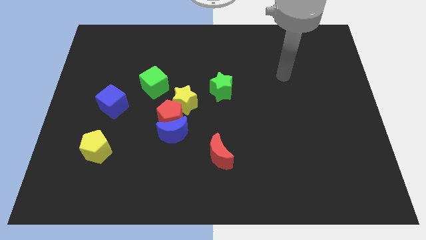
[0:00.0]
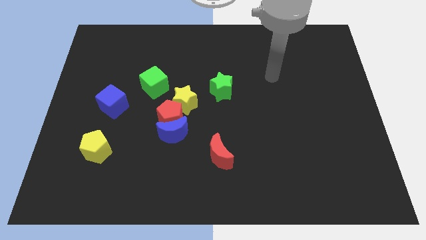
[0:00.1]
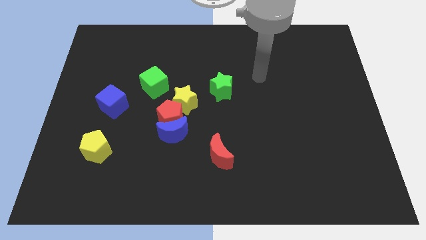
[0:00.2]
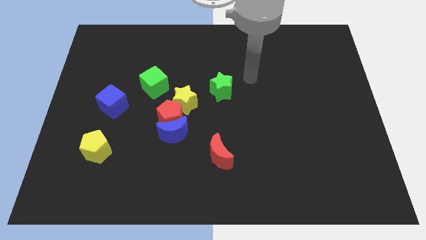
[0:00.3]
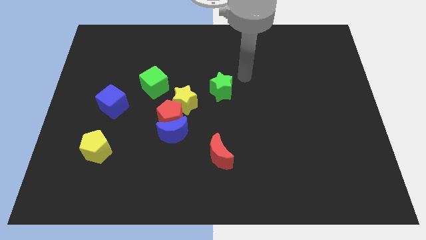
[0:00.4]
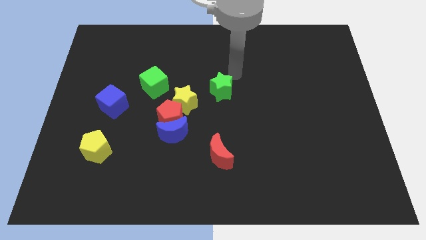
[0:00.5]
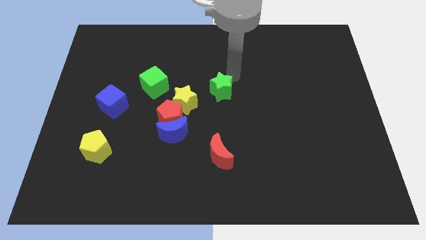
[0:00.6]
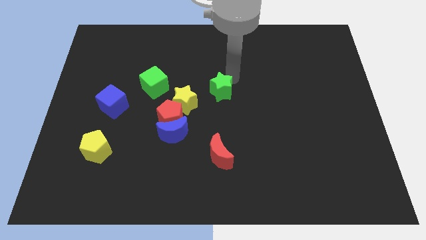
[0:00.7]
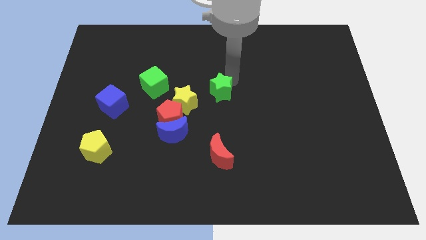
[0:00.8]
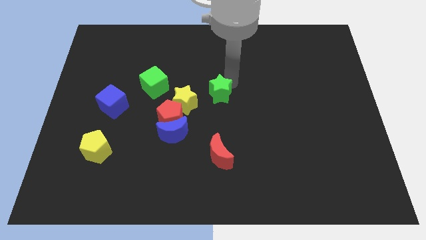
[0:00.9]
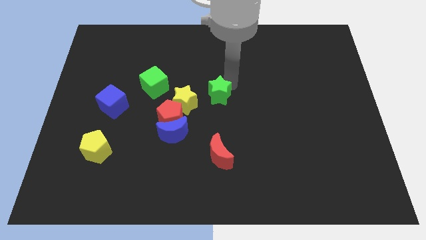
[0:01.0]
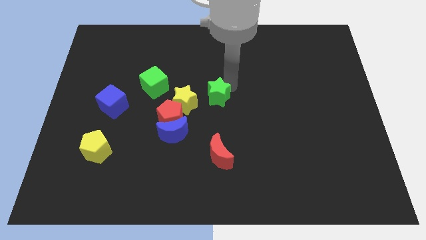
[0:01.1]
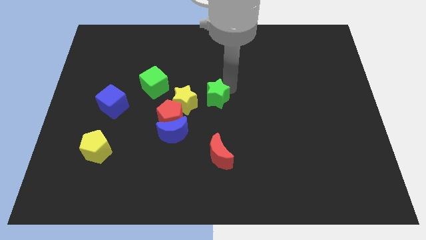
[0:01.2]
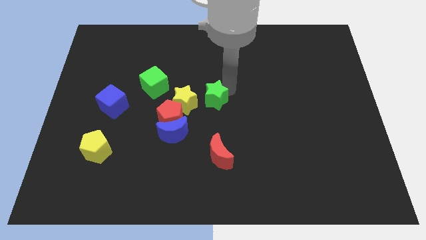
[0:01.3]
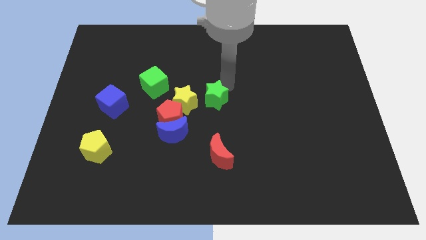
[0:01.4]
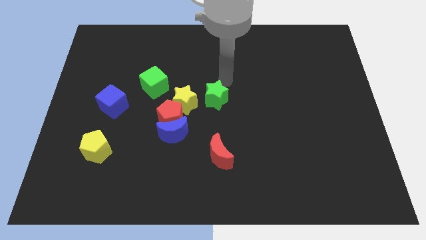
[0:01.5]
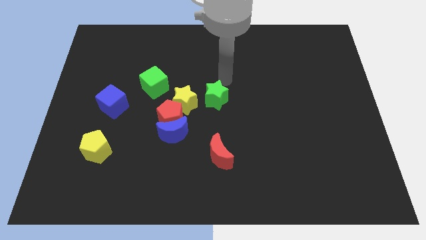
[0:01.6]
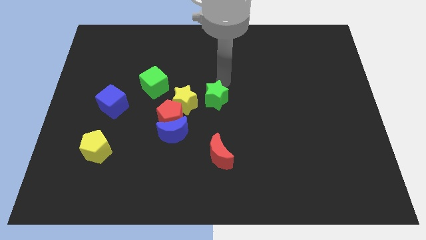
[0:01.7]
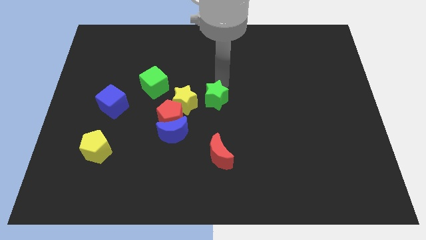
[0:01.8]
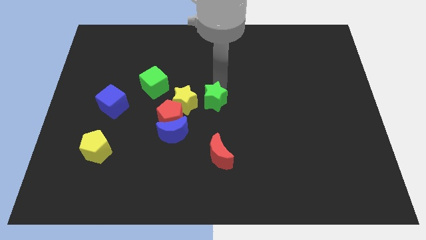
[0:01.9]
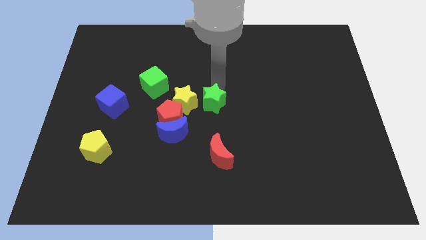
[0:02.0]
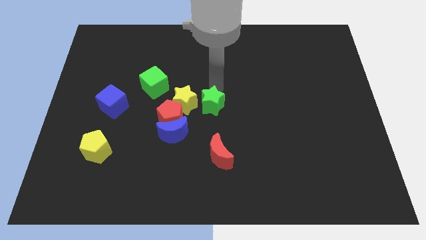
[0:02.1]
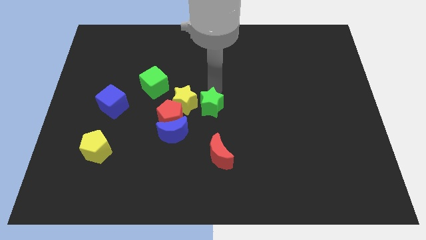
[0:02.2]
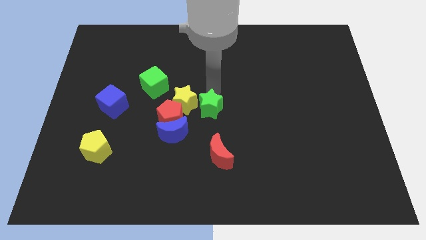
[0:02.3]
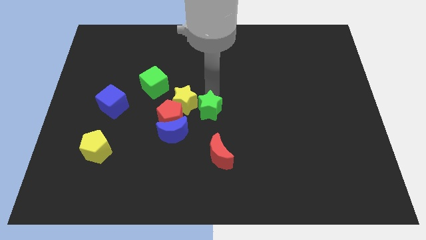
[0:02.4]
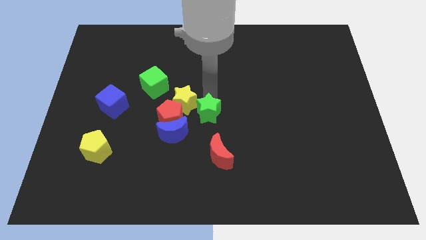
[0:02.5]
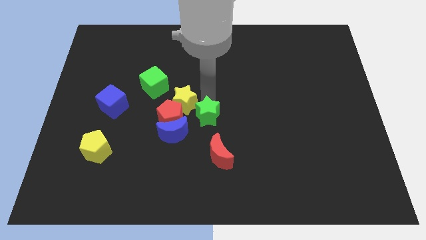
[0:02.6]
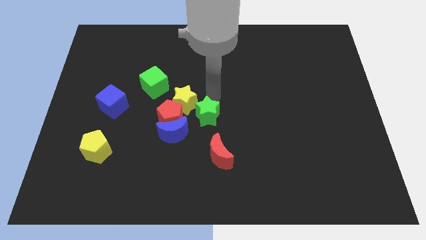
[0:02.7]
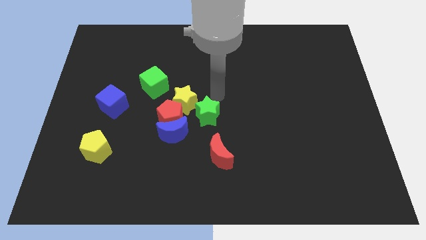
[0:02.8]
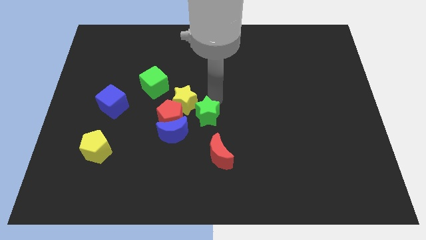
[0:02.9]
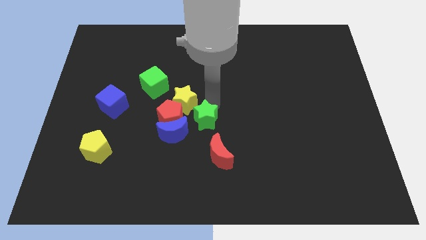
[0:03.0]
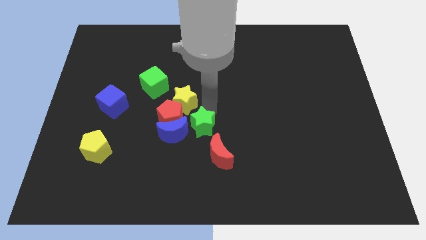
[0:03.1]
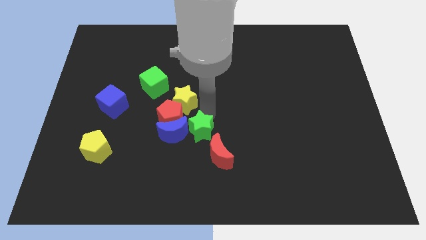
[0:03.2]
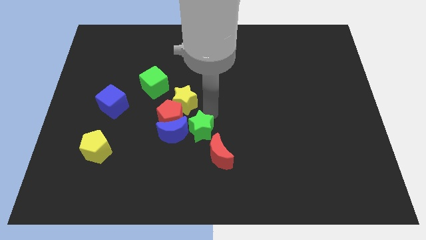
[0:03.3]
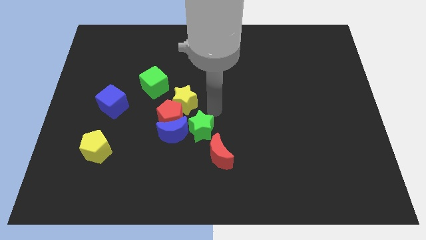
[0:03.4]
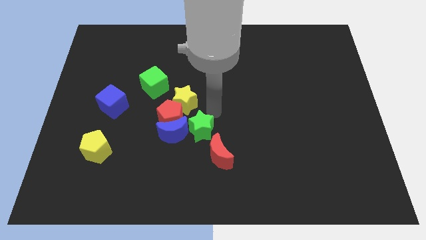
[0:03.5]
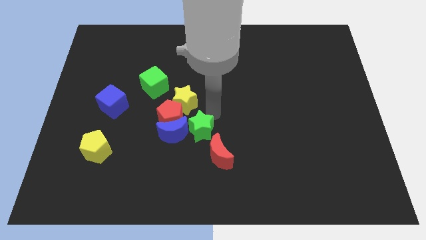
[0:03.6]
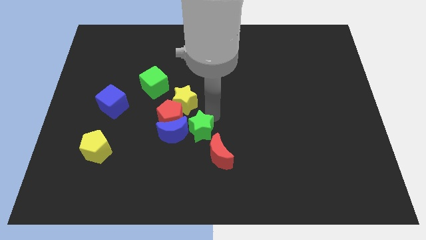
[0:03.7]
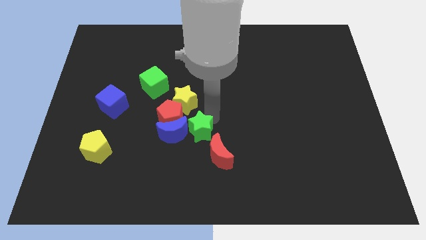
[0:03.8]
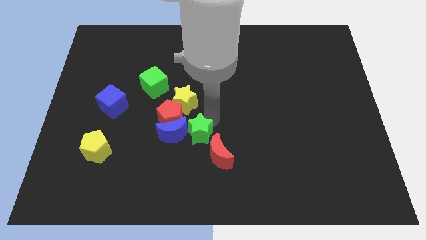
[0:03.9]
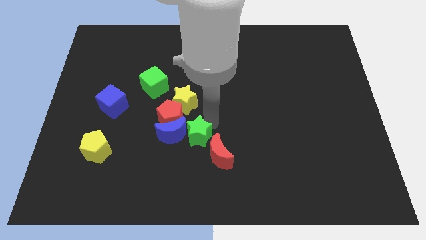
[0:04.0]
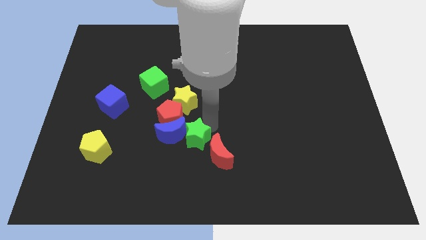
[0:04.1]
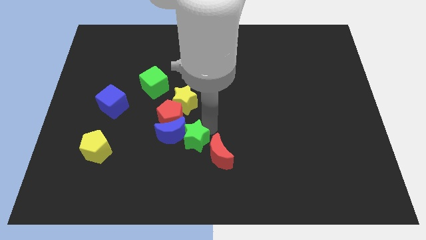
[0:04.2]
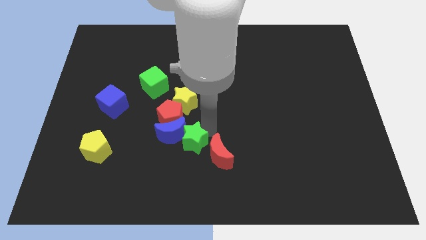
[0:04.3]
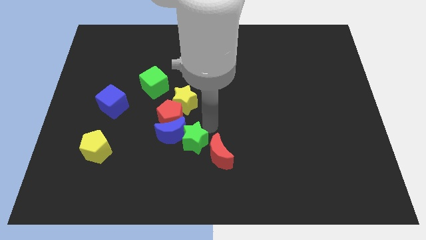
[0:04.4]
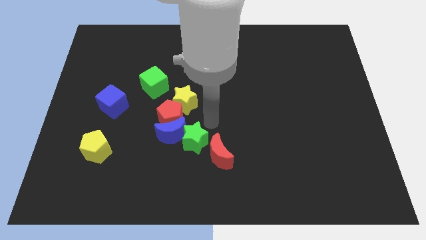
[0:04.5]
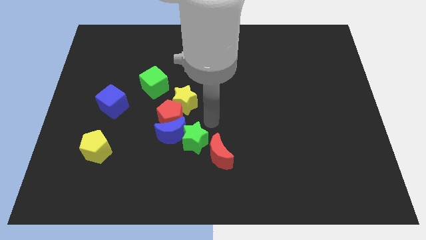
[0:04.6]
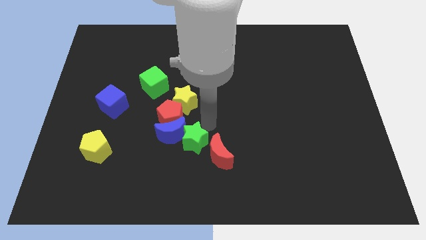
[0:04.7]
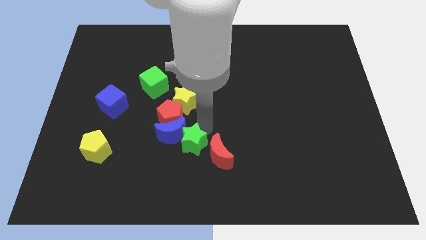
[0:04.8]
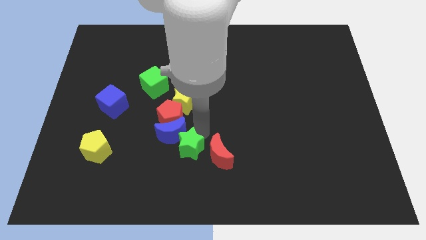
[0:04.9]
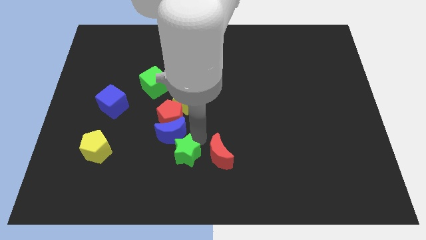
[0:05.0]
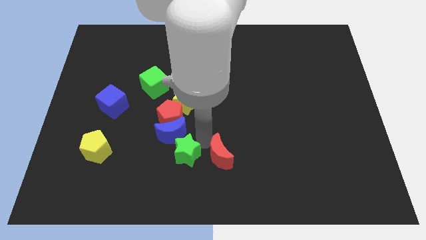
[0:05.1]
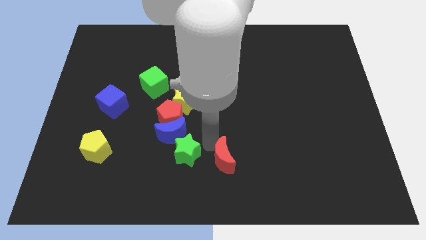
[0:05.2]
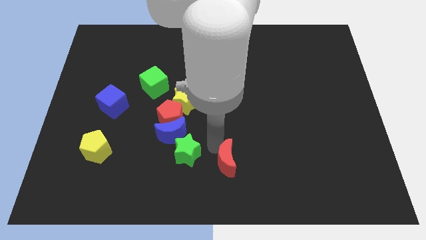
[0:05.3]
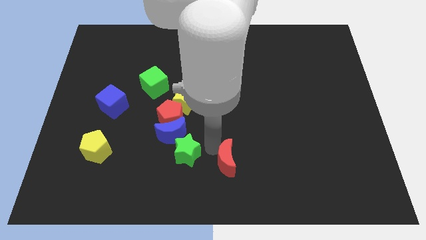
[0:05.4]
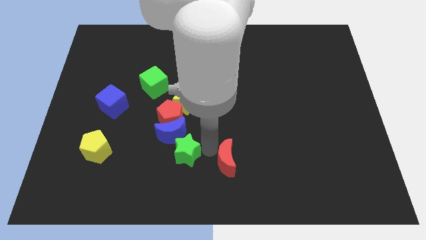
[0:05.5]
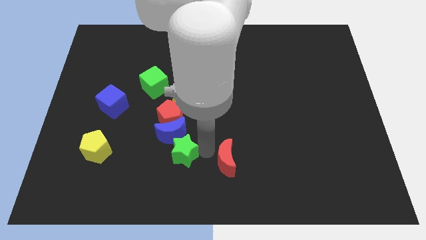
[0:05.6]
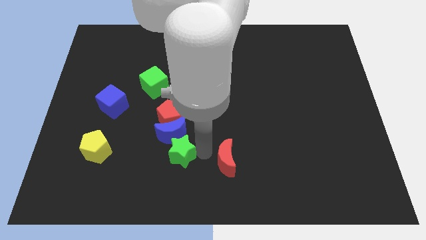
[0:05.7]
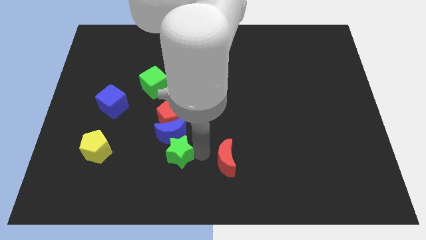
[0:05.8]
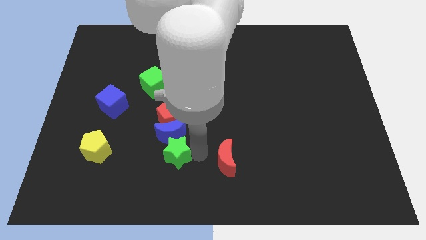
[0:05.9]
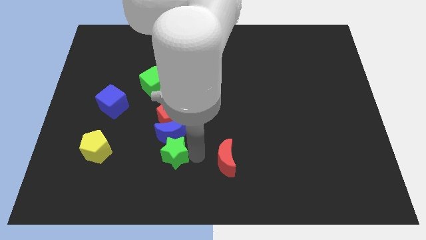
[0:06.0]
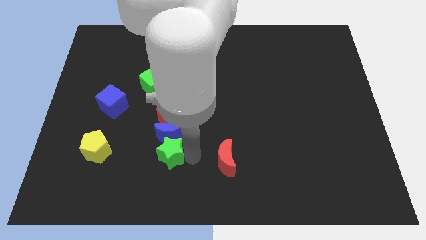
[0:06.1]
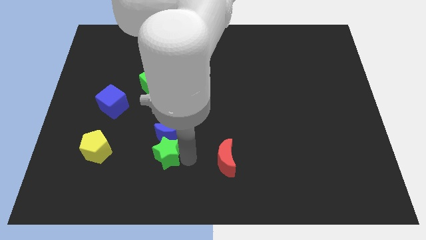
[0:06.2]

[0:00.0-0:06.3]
move the green star downwards and to the left

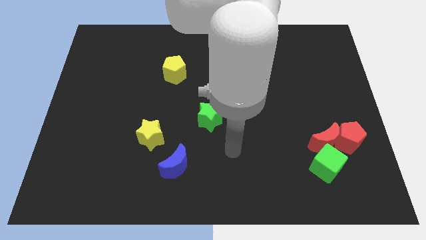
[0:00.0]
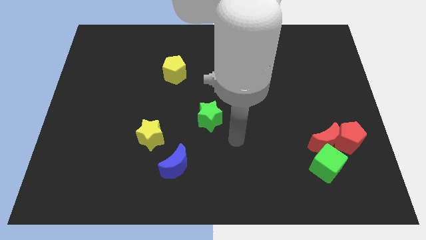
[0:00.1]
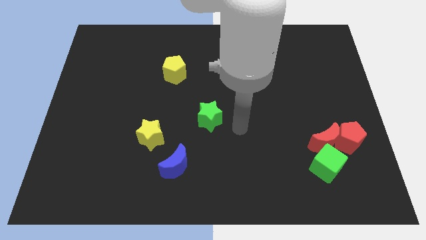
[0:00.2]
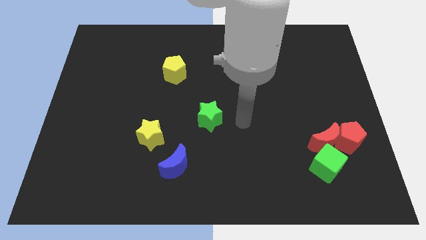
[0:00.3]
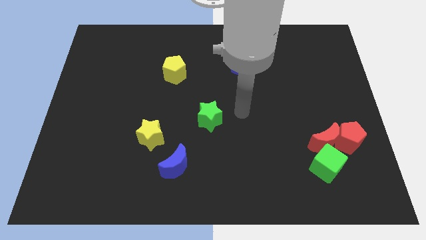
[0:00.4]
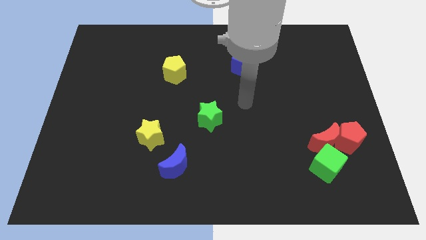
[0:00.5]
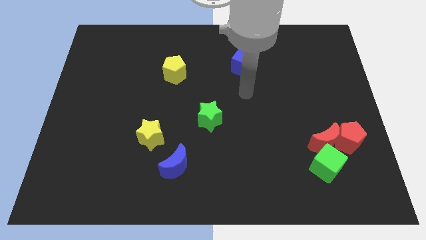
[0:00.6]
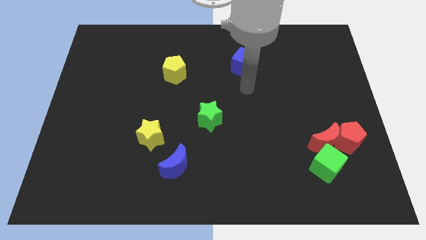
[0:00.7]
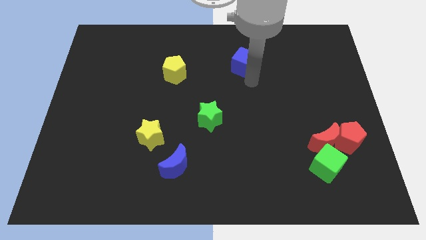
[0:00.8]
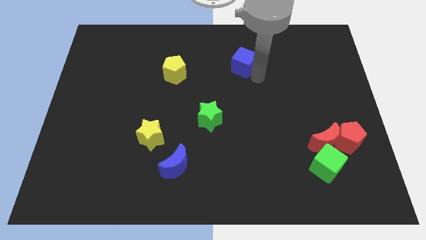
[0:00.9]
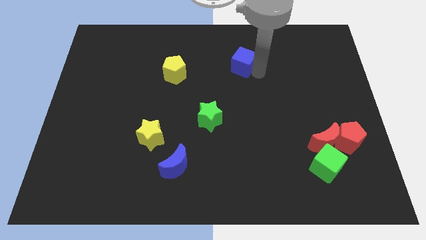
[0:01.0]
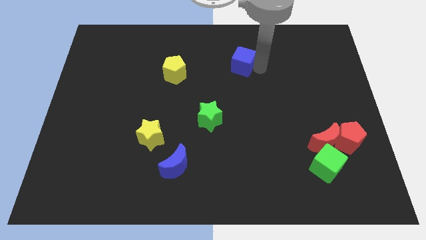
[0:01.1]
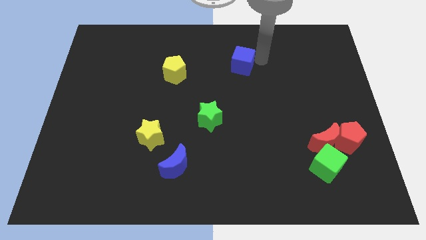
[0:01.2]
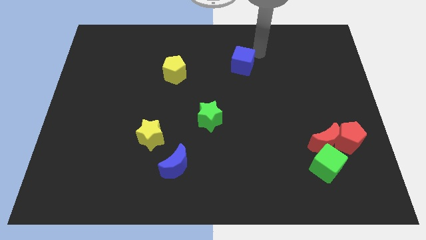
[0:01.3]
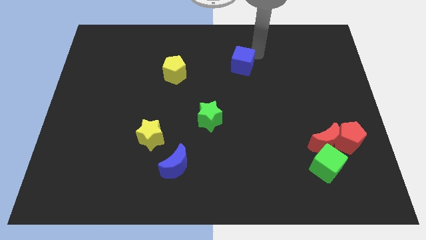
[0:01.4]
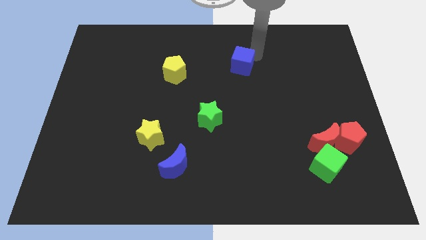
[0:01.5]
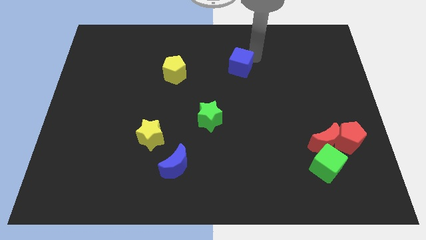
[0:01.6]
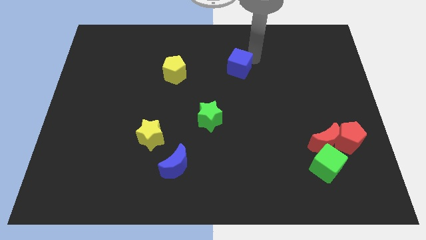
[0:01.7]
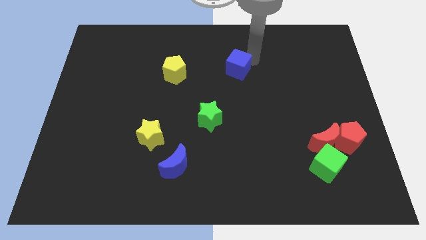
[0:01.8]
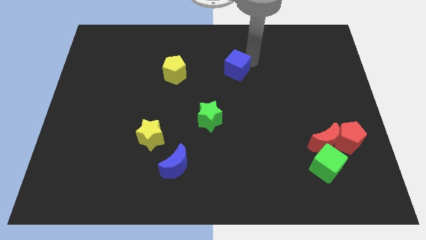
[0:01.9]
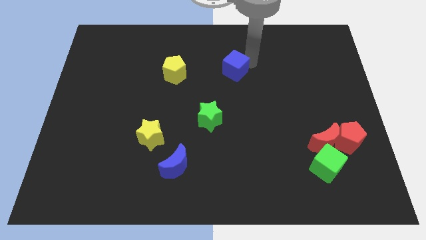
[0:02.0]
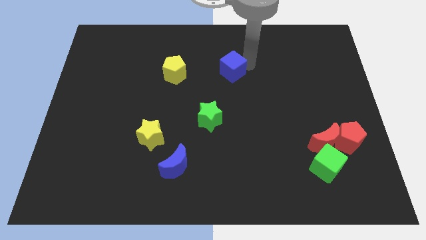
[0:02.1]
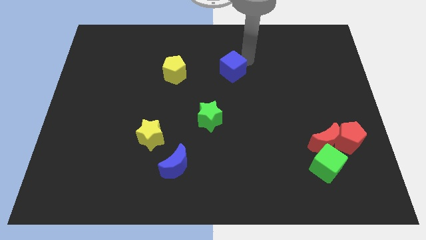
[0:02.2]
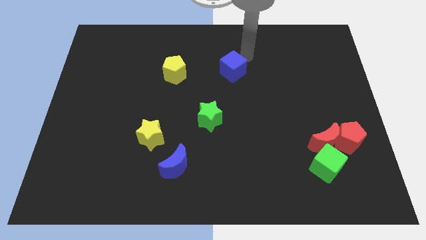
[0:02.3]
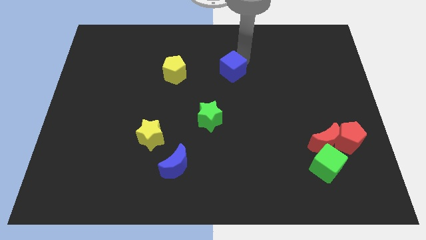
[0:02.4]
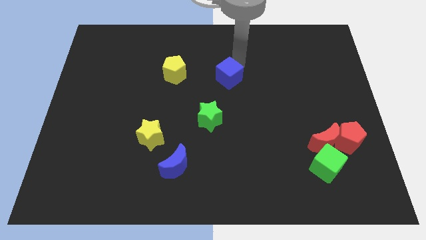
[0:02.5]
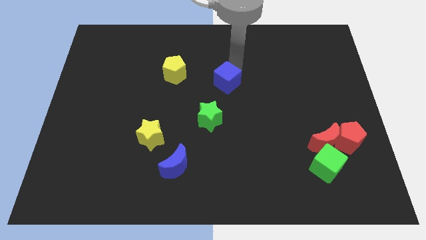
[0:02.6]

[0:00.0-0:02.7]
move the blue cube a little bit down and left diagonally
